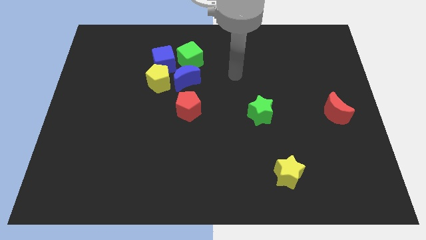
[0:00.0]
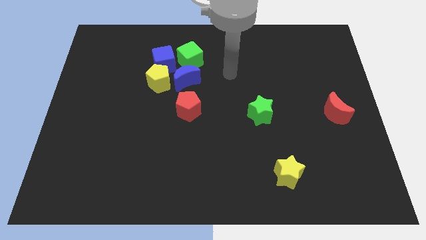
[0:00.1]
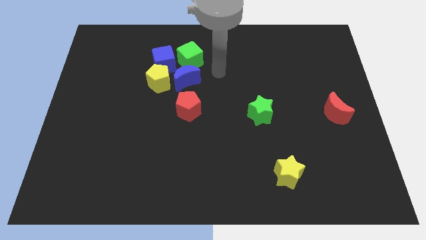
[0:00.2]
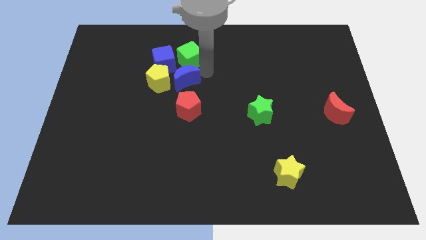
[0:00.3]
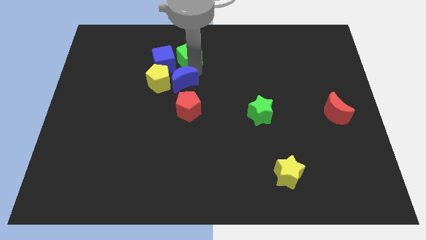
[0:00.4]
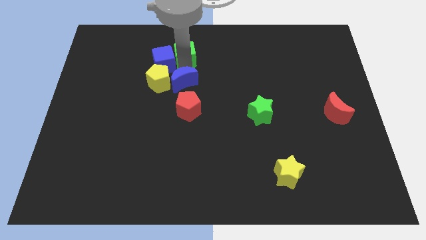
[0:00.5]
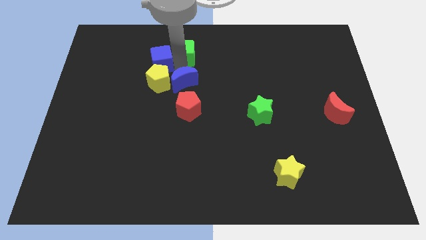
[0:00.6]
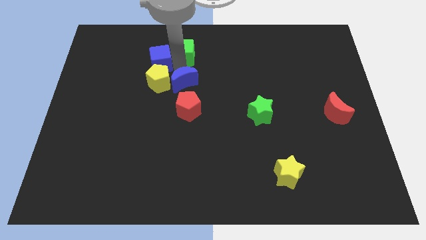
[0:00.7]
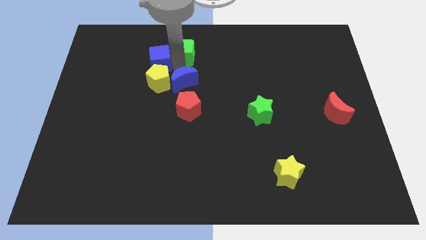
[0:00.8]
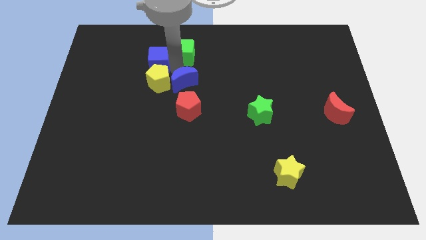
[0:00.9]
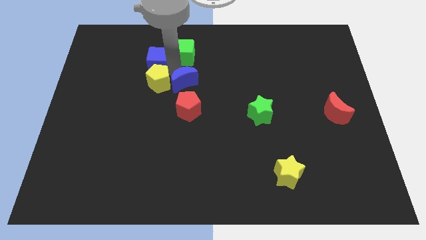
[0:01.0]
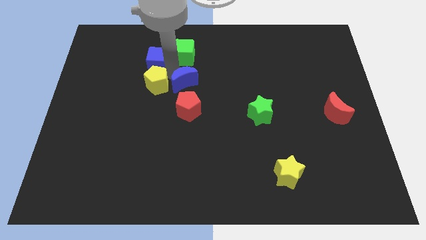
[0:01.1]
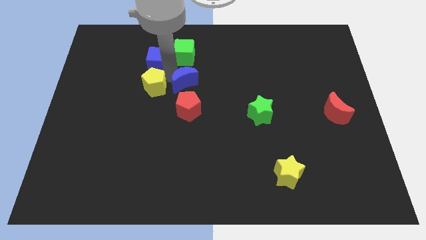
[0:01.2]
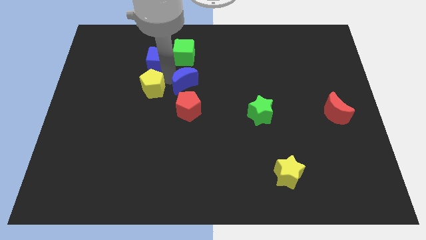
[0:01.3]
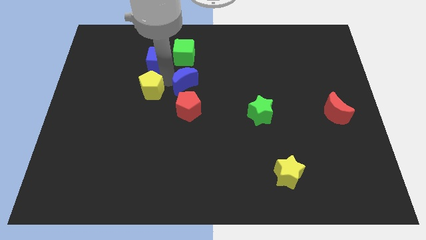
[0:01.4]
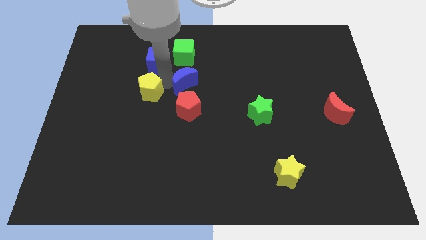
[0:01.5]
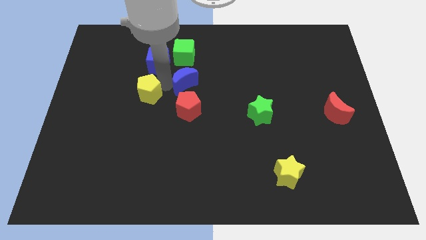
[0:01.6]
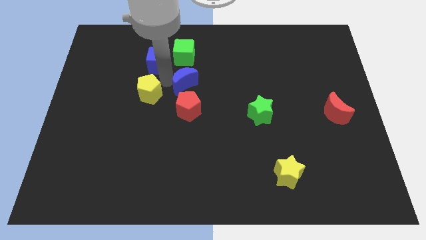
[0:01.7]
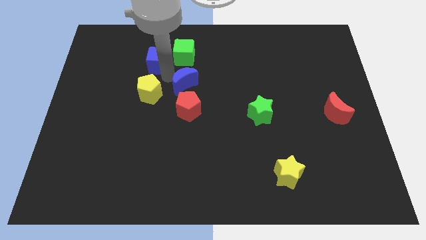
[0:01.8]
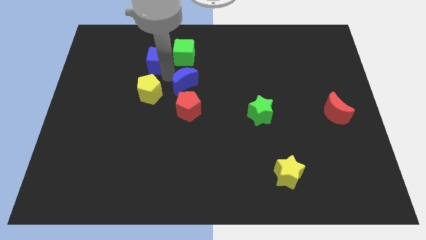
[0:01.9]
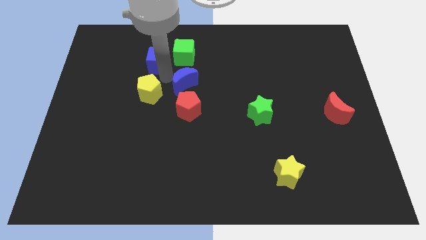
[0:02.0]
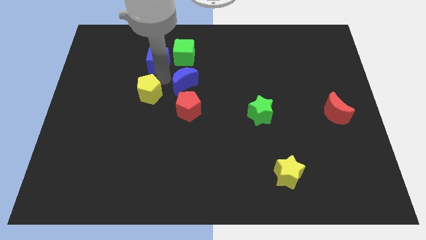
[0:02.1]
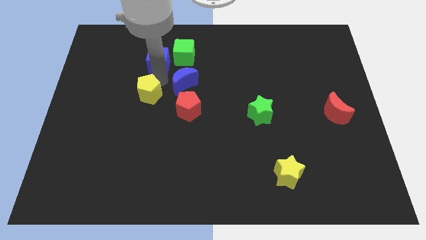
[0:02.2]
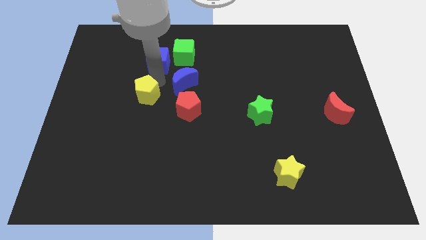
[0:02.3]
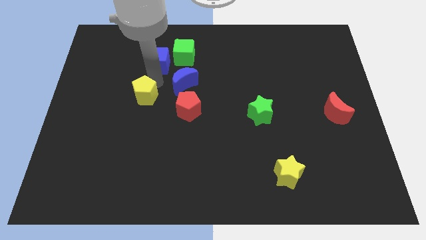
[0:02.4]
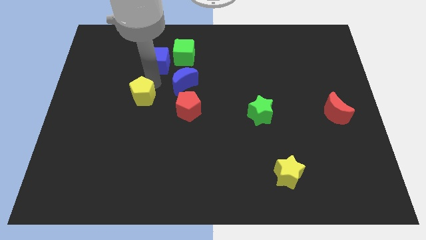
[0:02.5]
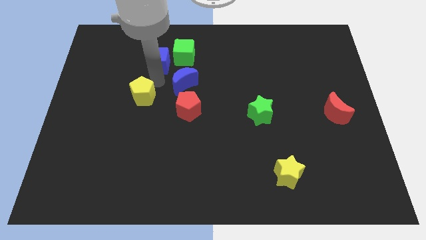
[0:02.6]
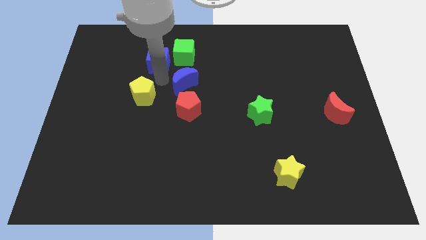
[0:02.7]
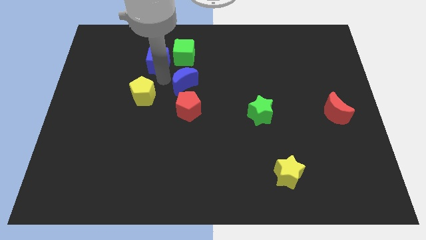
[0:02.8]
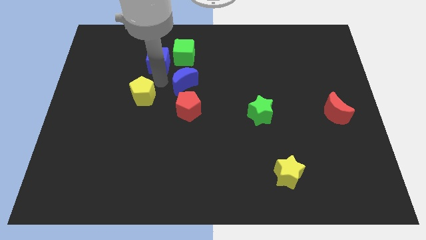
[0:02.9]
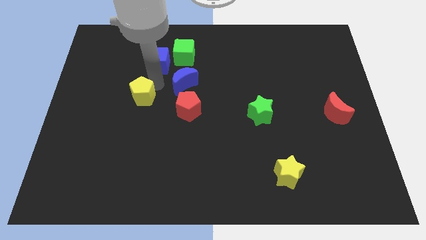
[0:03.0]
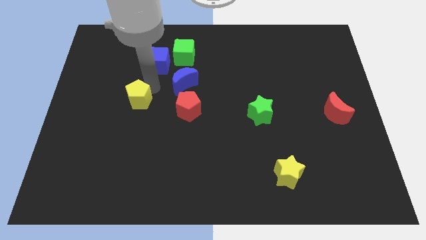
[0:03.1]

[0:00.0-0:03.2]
pull the yellow pentagon apart from the blue cube and blue moon

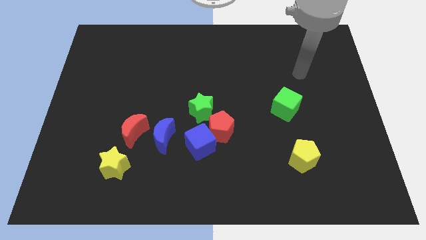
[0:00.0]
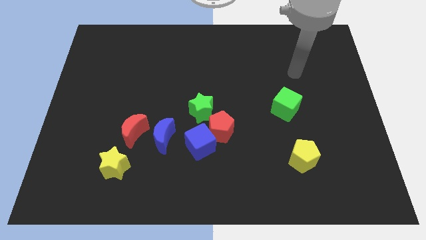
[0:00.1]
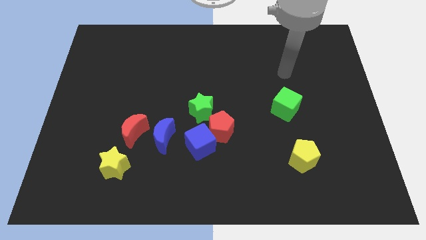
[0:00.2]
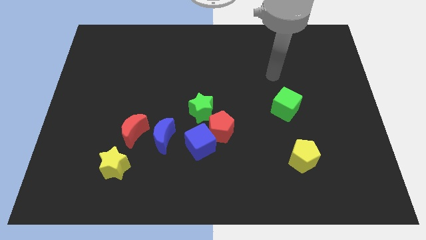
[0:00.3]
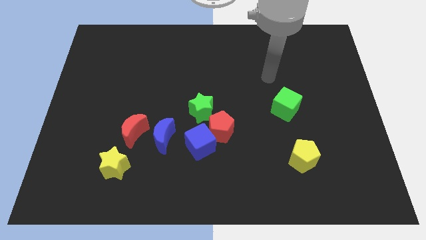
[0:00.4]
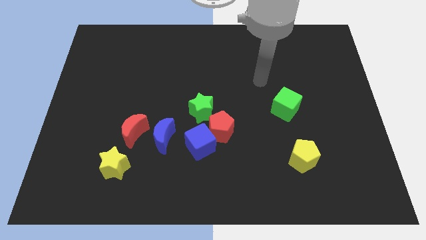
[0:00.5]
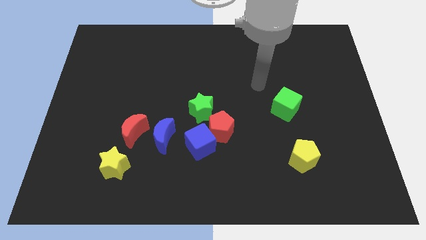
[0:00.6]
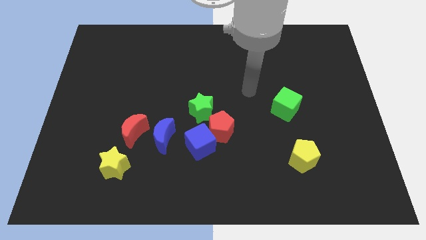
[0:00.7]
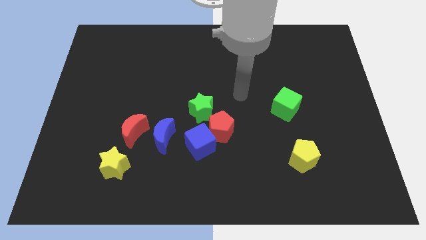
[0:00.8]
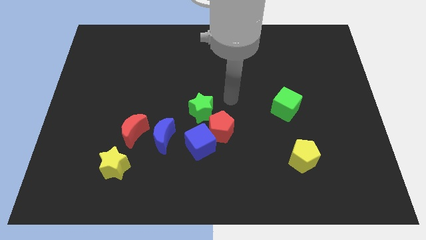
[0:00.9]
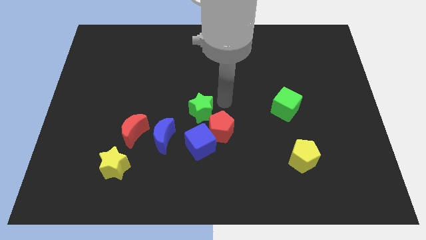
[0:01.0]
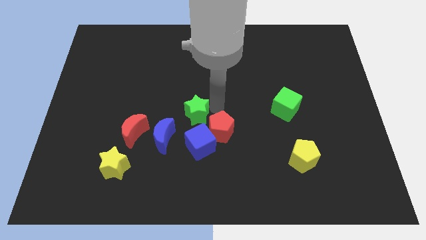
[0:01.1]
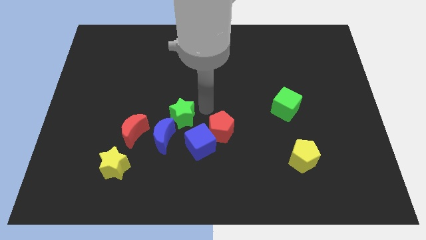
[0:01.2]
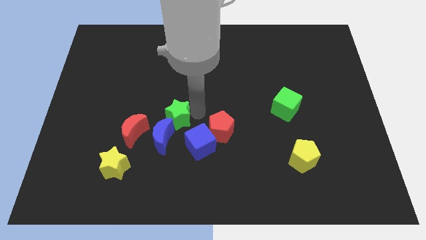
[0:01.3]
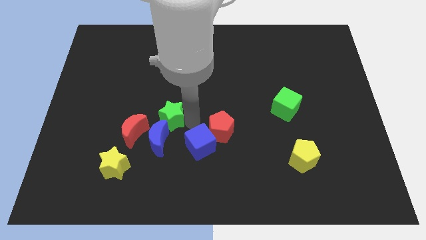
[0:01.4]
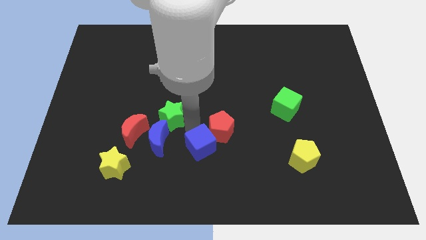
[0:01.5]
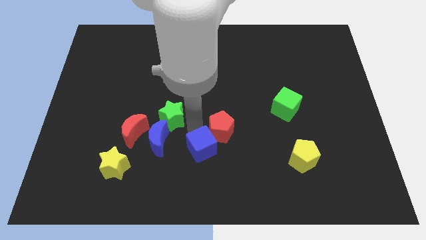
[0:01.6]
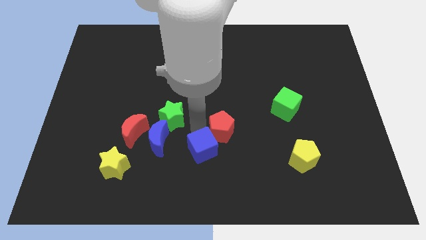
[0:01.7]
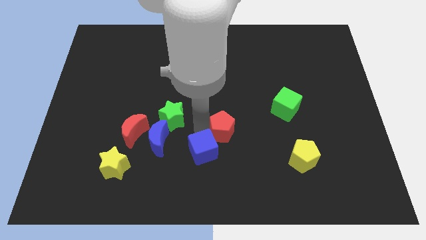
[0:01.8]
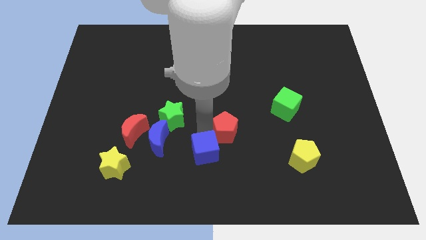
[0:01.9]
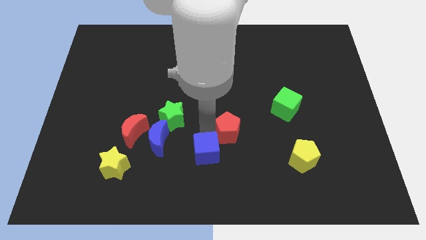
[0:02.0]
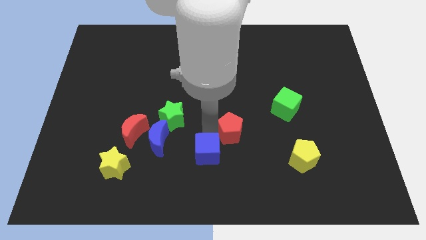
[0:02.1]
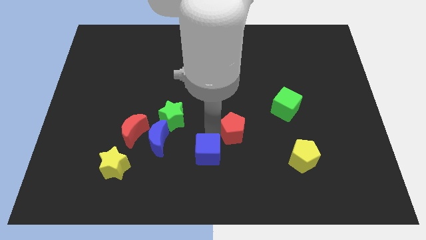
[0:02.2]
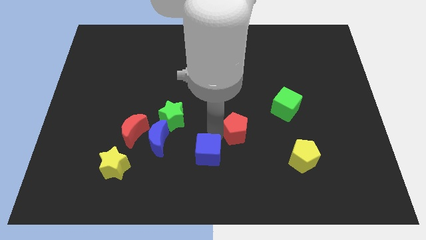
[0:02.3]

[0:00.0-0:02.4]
separate the red pentagon from the blue cube and green star

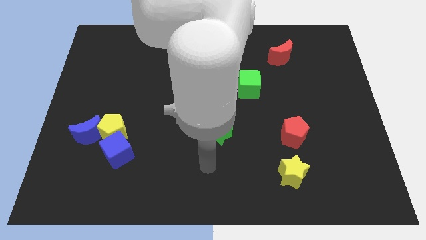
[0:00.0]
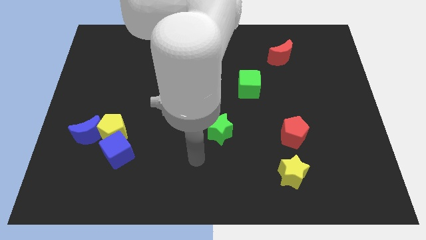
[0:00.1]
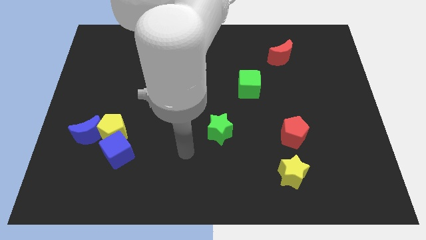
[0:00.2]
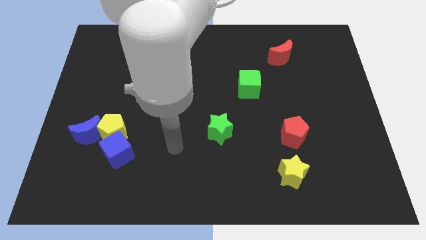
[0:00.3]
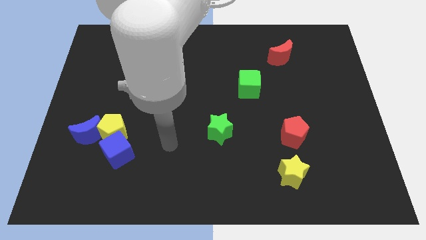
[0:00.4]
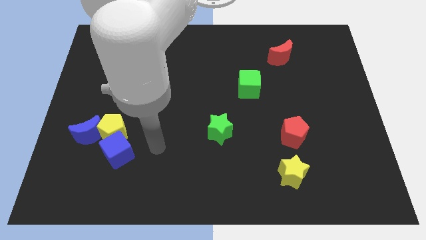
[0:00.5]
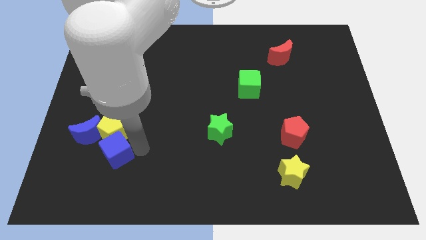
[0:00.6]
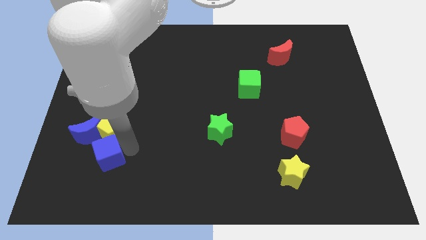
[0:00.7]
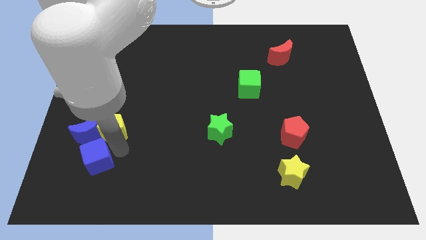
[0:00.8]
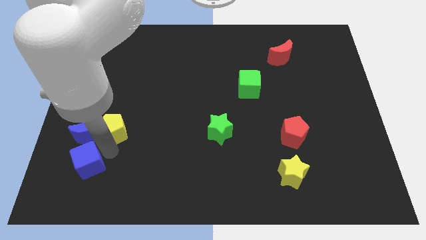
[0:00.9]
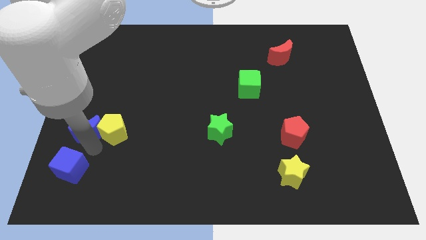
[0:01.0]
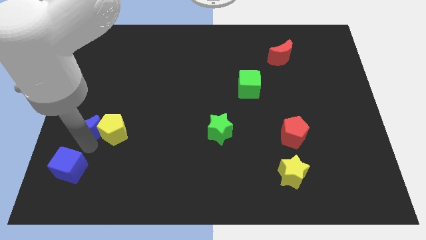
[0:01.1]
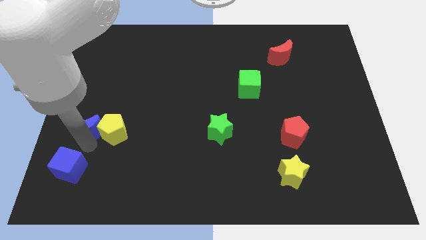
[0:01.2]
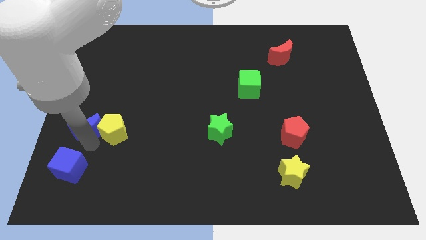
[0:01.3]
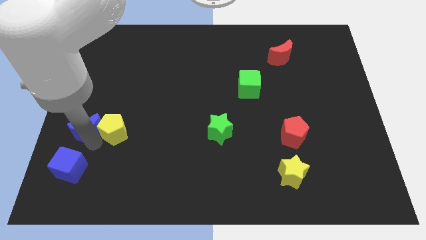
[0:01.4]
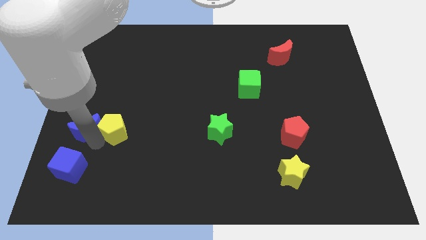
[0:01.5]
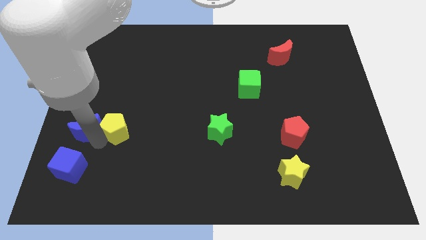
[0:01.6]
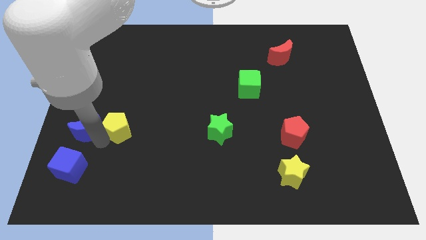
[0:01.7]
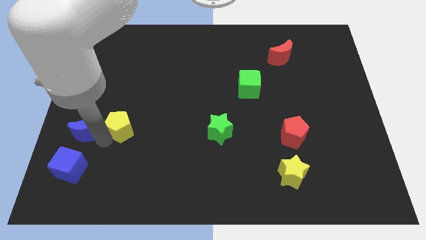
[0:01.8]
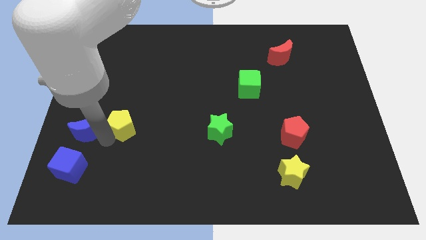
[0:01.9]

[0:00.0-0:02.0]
separate the yellow pentagon from the blue moon and blue cube

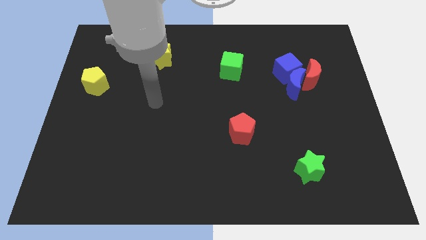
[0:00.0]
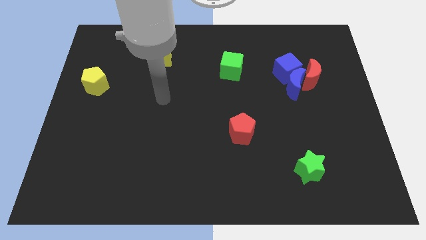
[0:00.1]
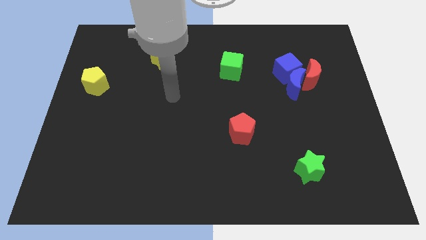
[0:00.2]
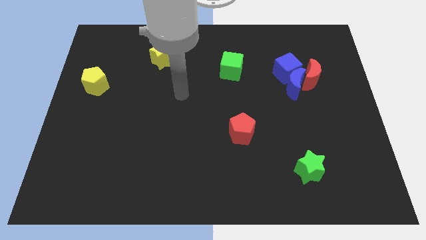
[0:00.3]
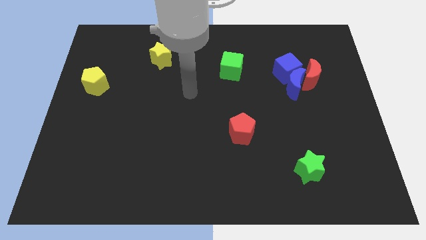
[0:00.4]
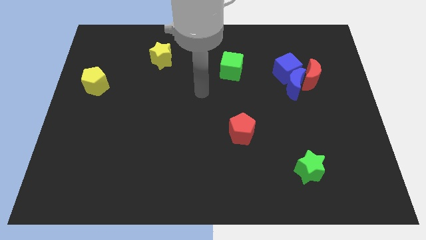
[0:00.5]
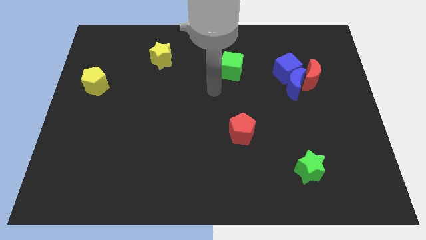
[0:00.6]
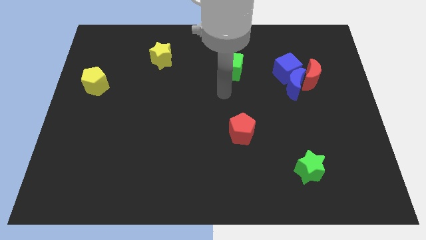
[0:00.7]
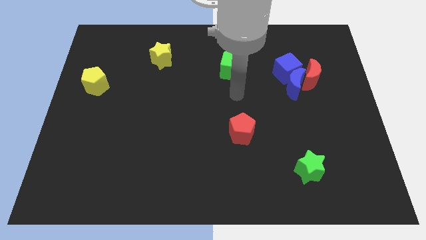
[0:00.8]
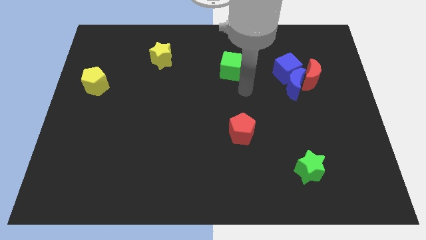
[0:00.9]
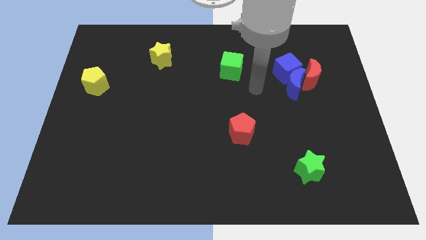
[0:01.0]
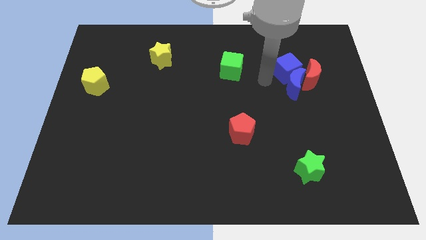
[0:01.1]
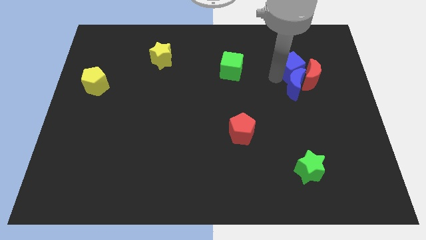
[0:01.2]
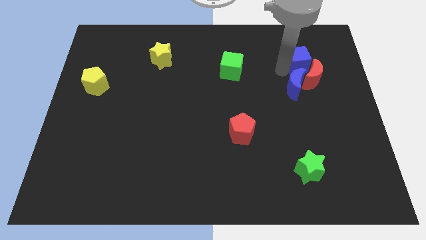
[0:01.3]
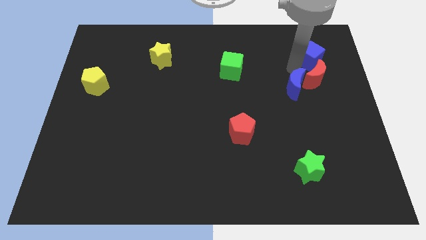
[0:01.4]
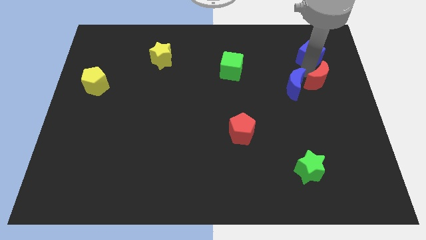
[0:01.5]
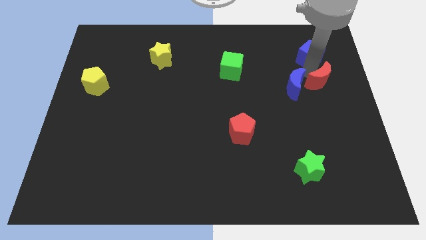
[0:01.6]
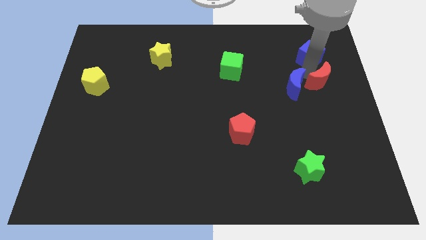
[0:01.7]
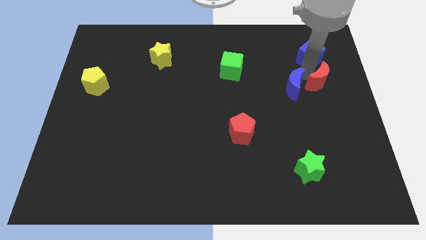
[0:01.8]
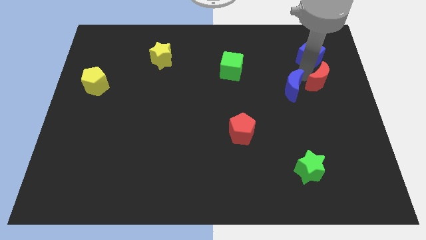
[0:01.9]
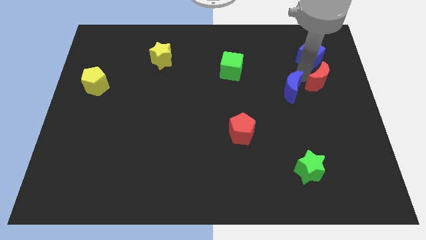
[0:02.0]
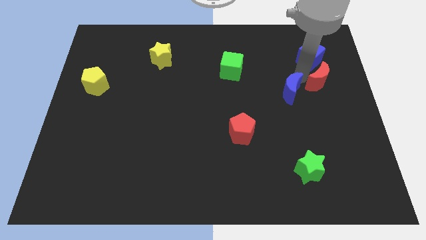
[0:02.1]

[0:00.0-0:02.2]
pull the blue moon apart from the blue cube and red moon
